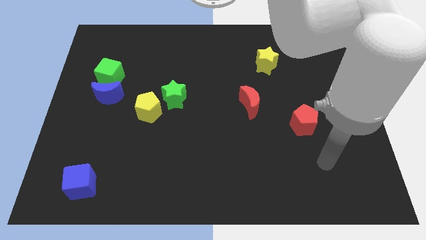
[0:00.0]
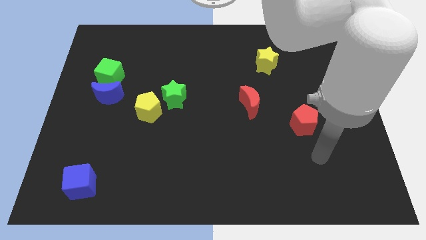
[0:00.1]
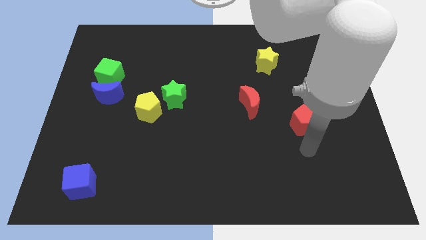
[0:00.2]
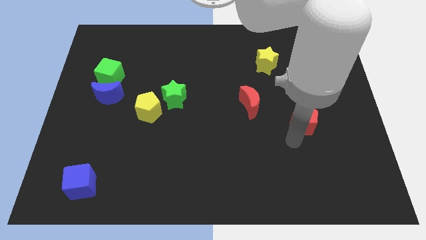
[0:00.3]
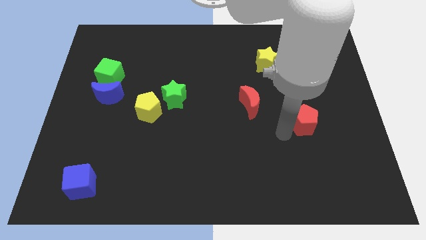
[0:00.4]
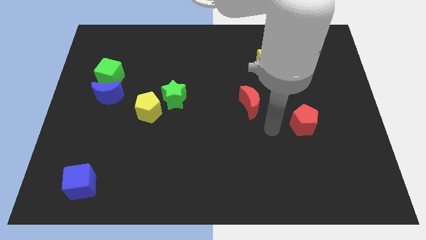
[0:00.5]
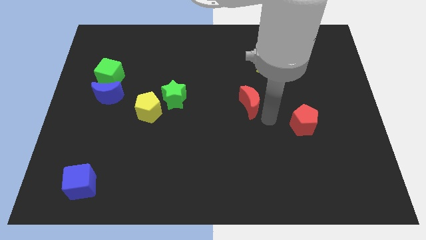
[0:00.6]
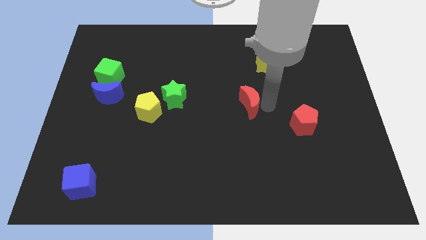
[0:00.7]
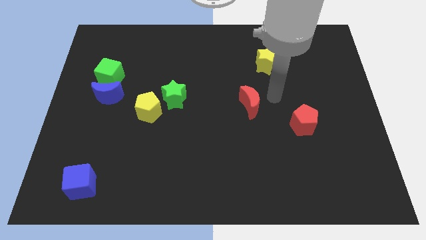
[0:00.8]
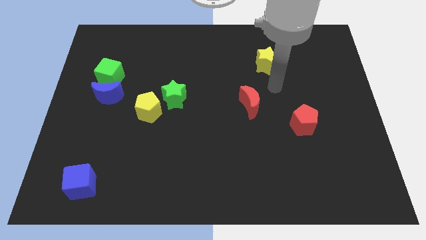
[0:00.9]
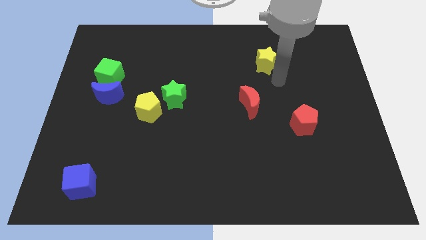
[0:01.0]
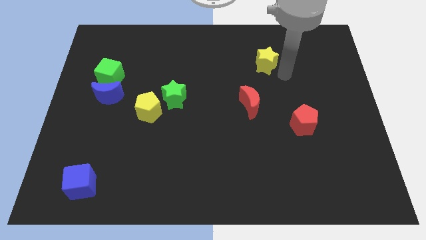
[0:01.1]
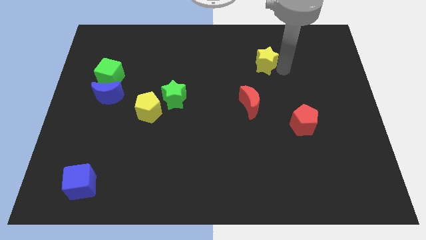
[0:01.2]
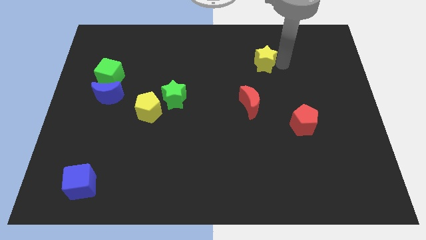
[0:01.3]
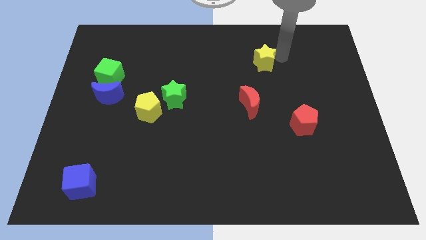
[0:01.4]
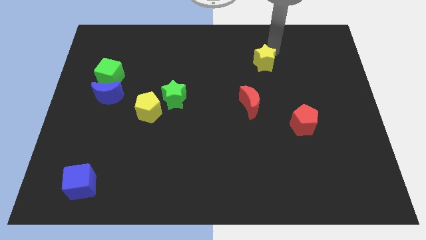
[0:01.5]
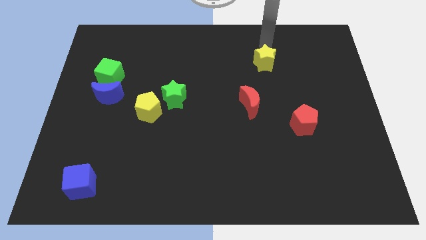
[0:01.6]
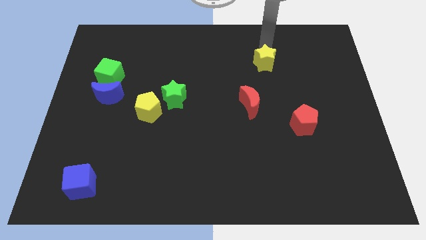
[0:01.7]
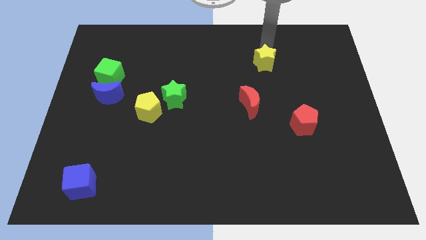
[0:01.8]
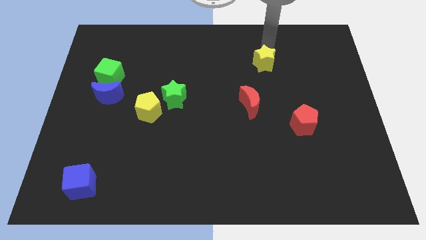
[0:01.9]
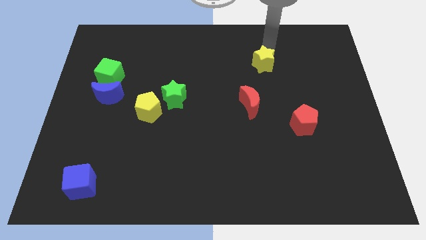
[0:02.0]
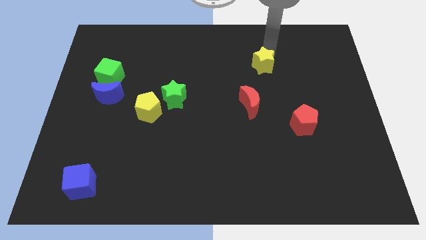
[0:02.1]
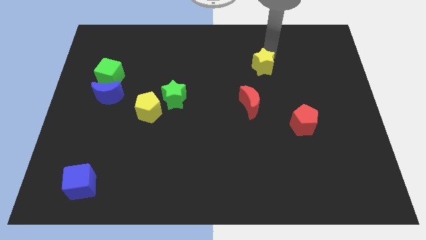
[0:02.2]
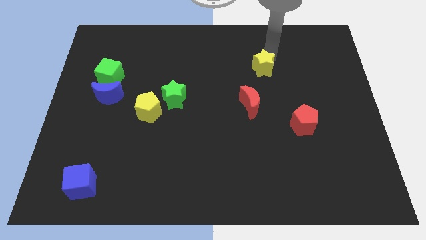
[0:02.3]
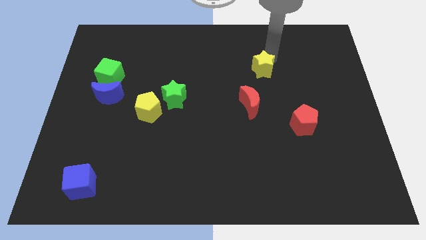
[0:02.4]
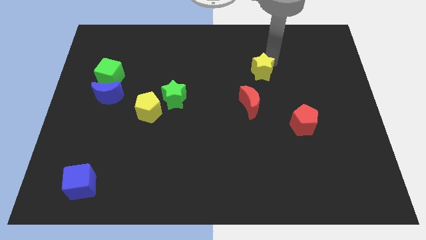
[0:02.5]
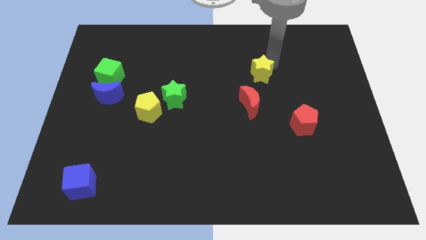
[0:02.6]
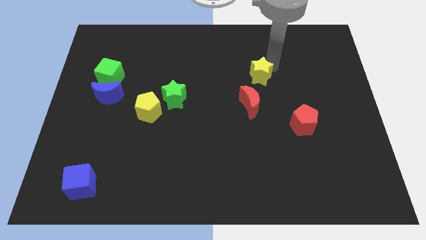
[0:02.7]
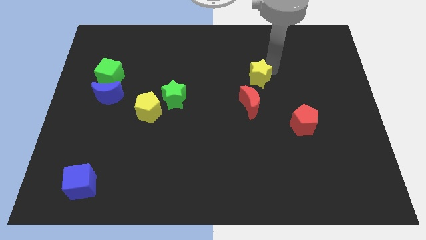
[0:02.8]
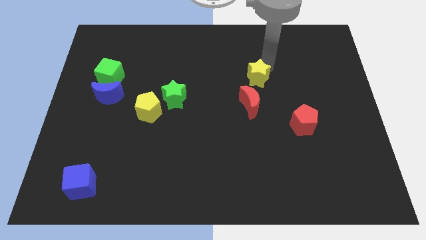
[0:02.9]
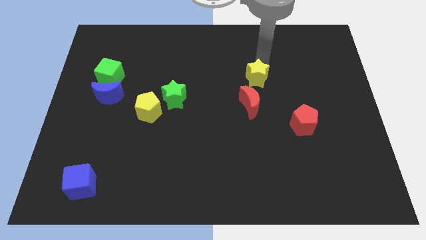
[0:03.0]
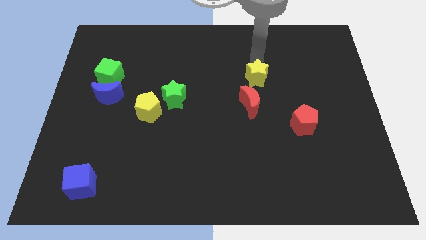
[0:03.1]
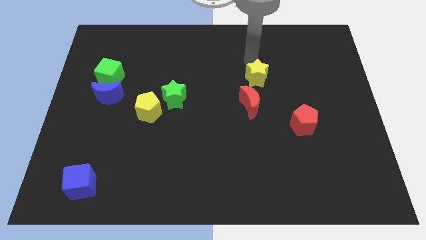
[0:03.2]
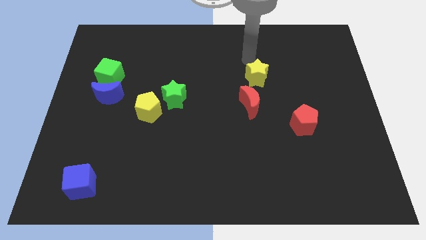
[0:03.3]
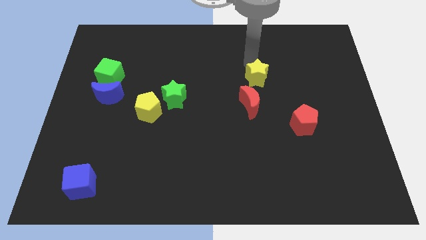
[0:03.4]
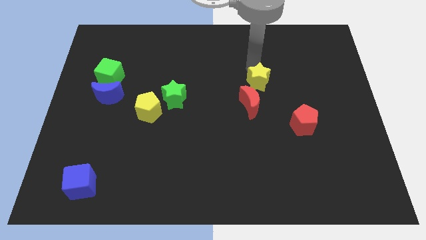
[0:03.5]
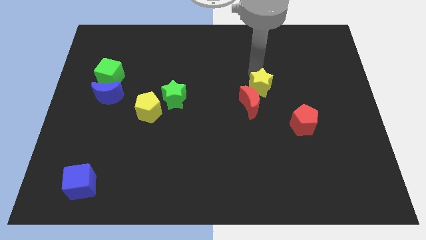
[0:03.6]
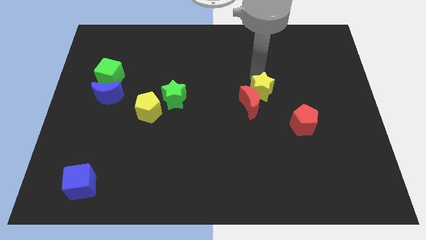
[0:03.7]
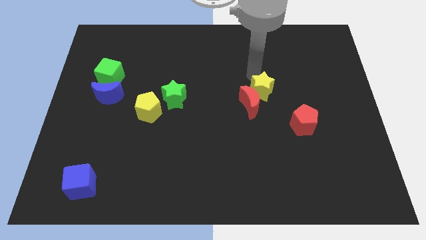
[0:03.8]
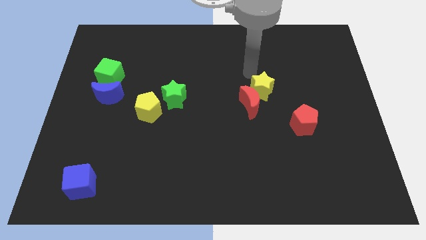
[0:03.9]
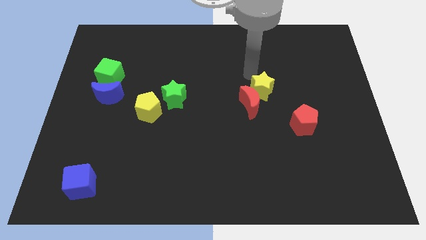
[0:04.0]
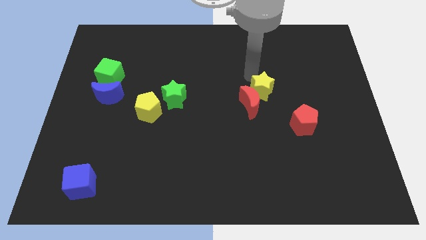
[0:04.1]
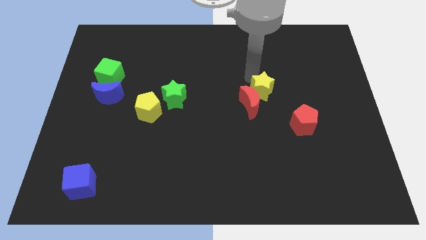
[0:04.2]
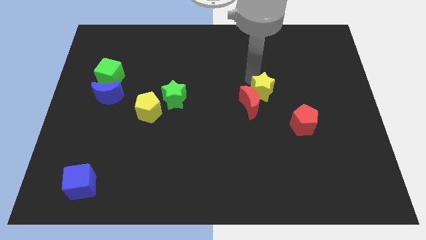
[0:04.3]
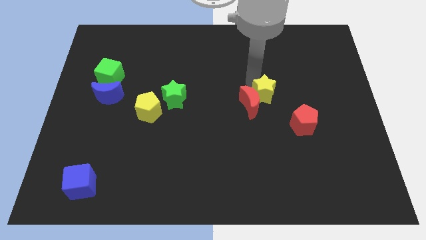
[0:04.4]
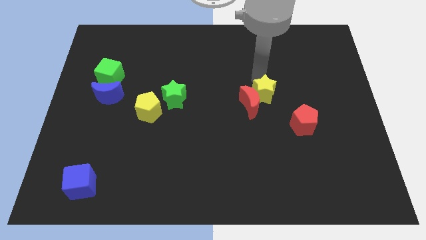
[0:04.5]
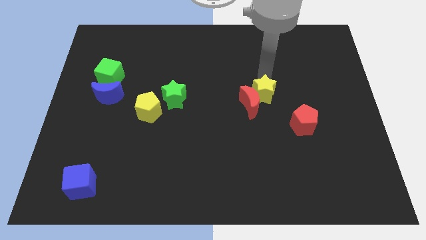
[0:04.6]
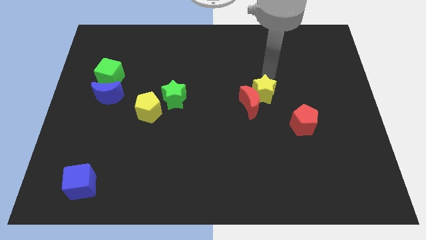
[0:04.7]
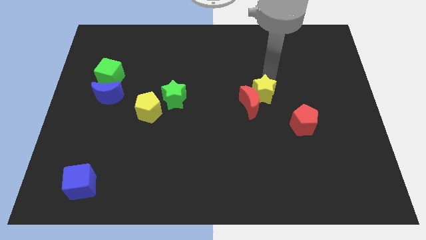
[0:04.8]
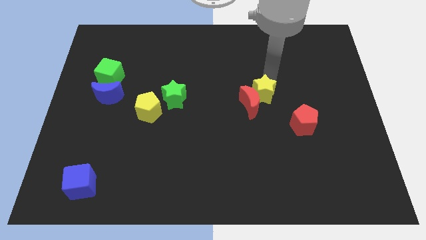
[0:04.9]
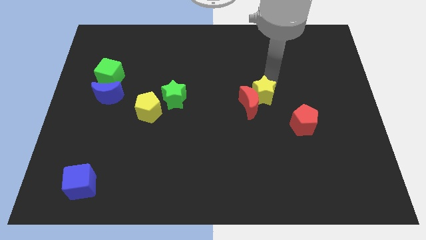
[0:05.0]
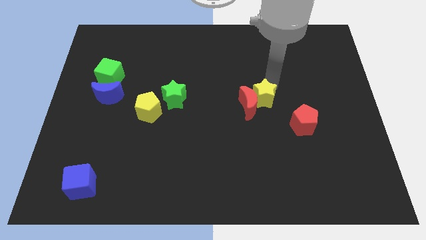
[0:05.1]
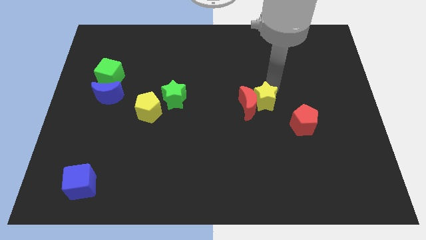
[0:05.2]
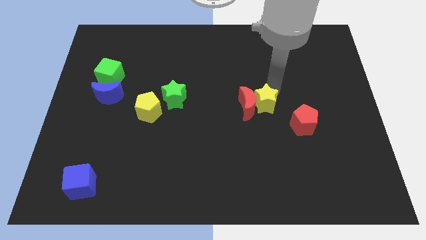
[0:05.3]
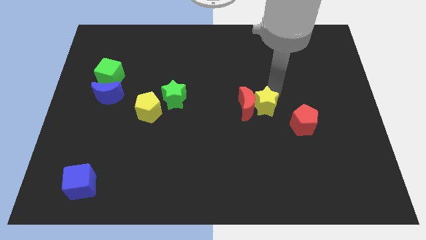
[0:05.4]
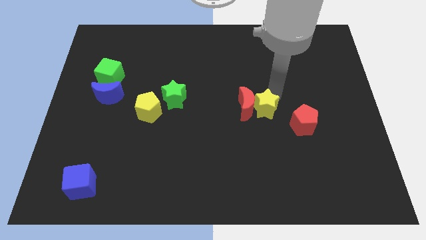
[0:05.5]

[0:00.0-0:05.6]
slide the yellow star just left of the red pentagon

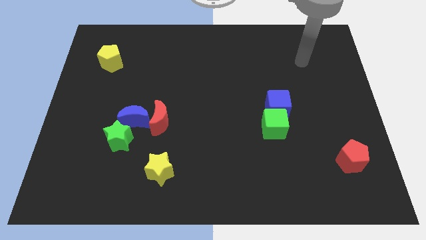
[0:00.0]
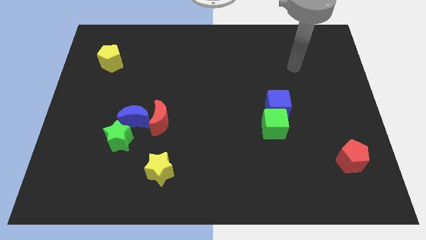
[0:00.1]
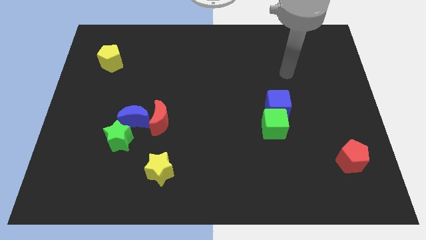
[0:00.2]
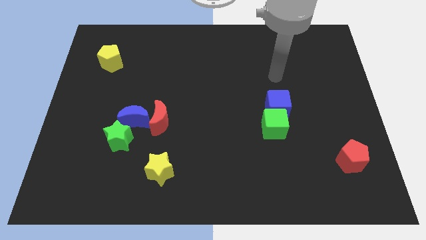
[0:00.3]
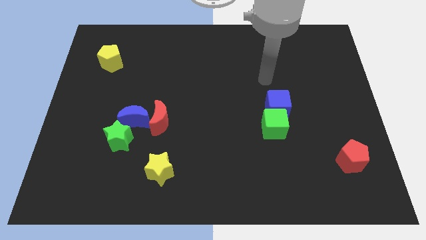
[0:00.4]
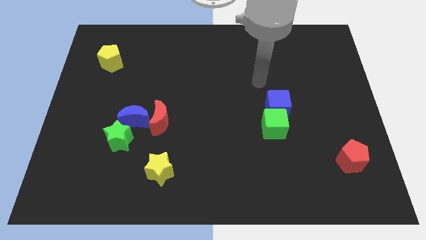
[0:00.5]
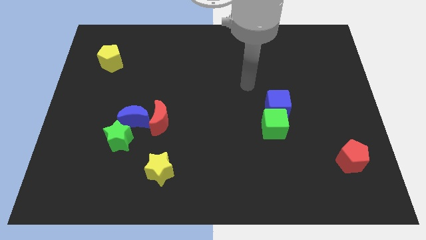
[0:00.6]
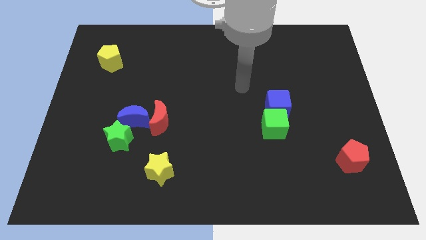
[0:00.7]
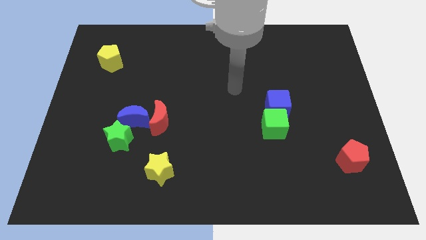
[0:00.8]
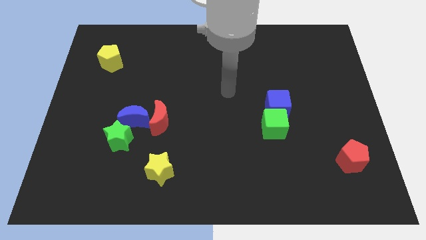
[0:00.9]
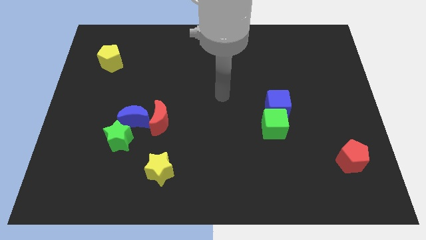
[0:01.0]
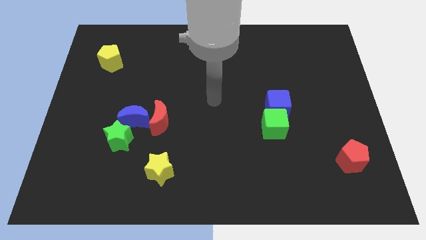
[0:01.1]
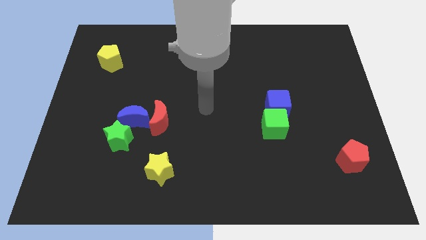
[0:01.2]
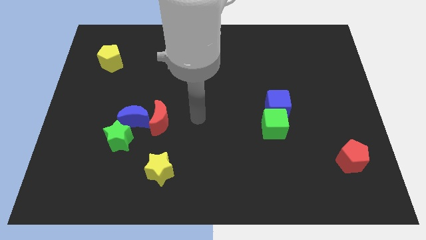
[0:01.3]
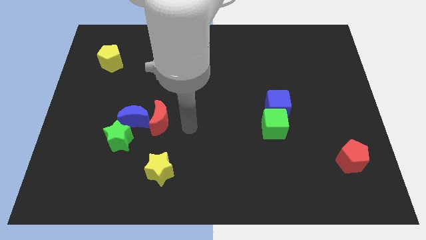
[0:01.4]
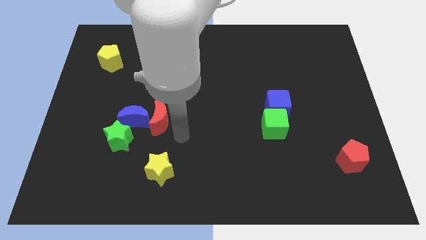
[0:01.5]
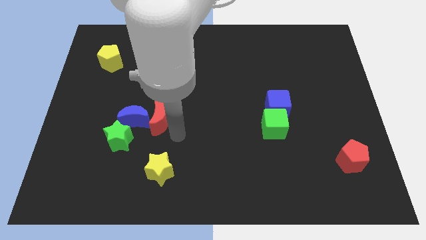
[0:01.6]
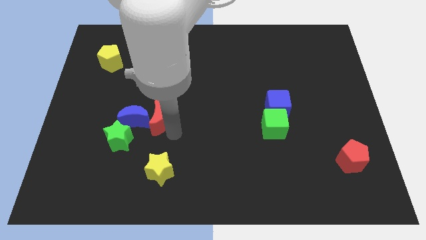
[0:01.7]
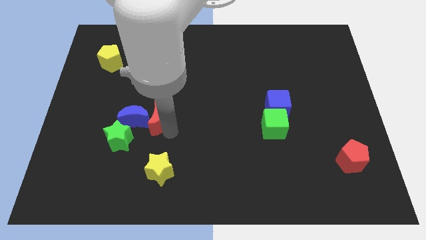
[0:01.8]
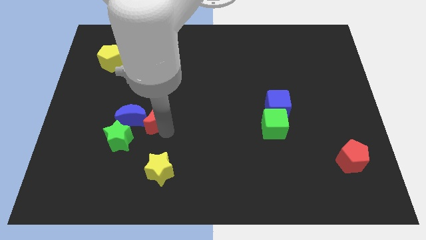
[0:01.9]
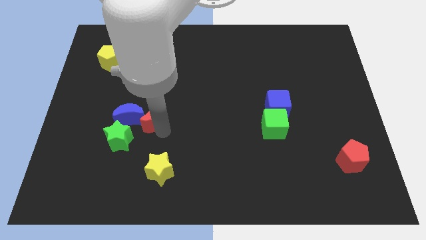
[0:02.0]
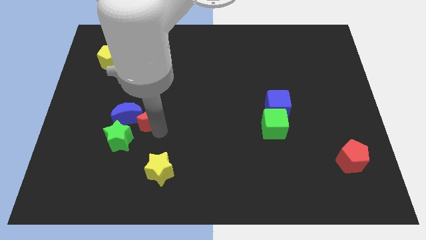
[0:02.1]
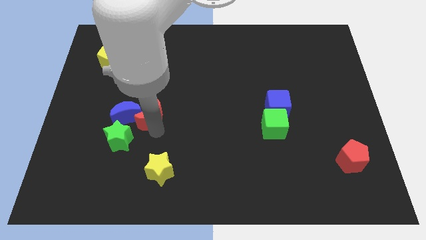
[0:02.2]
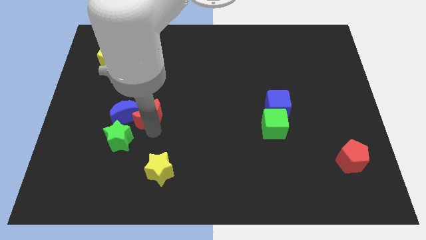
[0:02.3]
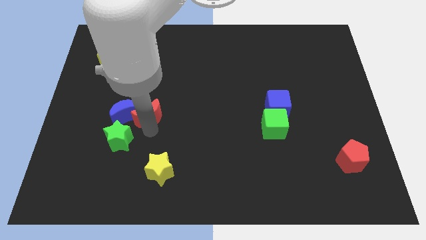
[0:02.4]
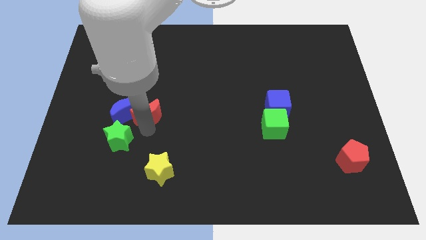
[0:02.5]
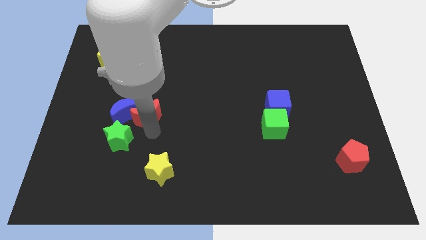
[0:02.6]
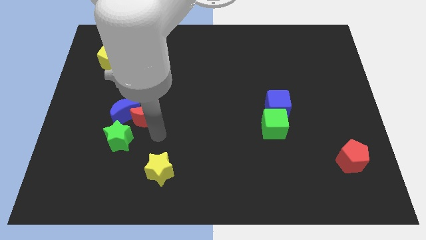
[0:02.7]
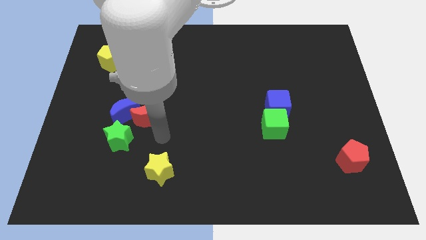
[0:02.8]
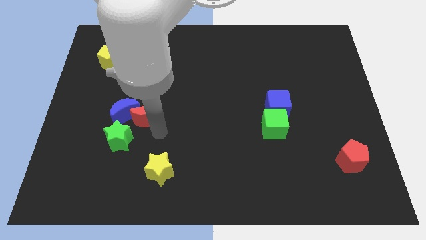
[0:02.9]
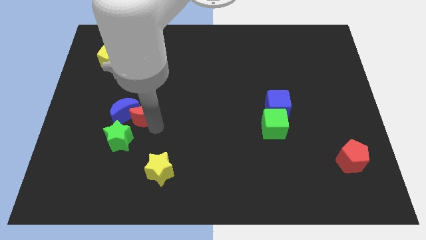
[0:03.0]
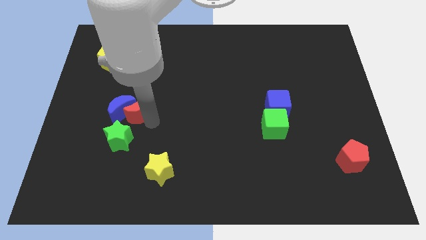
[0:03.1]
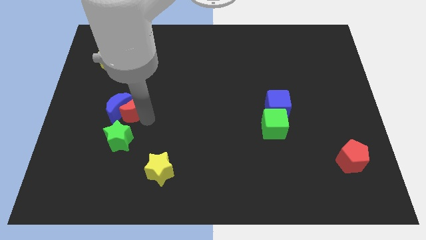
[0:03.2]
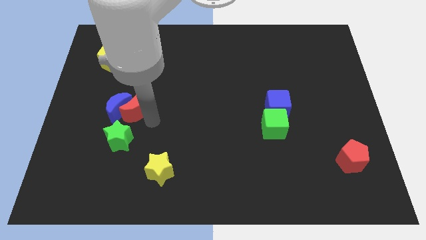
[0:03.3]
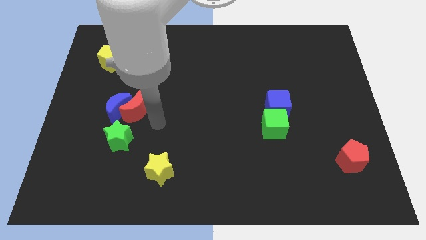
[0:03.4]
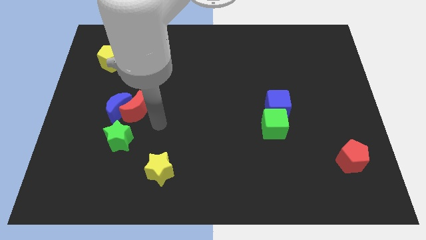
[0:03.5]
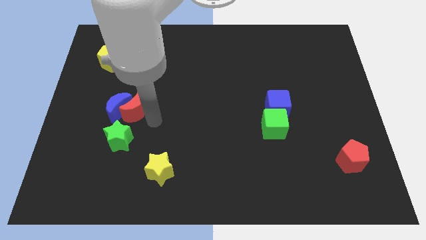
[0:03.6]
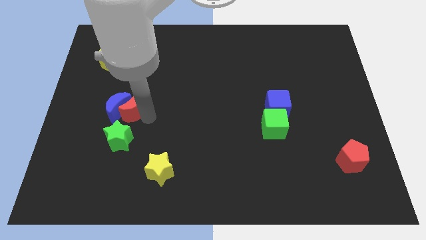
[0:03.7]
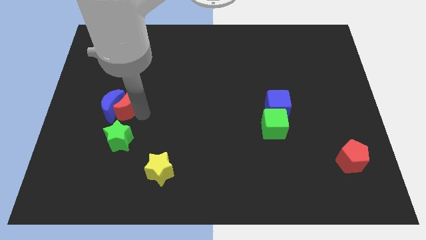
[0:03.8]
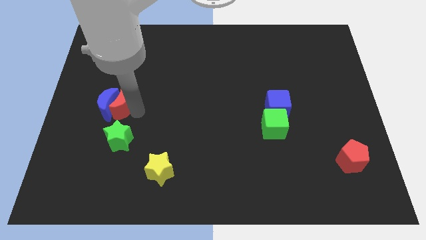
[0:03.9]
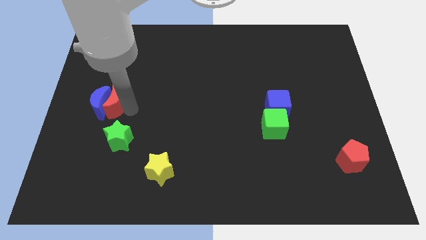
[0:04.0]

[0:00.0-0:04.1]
slide the red moon to the bottom of the yellow pentagon
